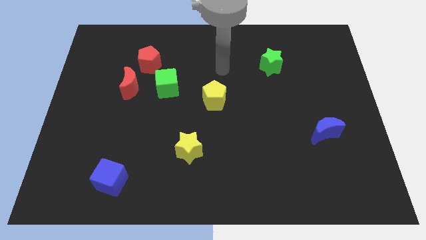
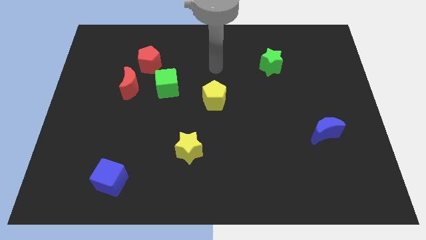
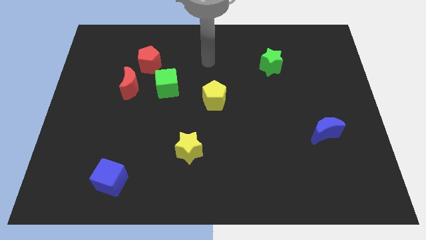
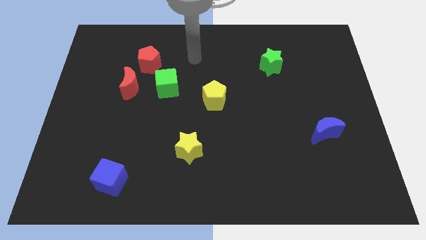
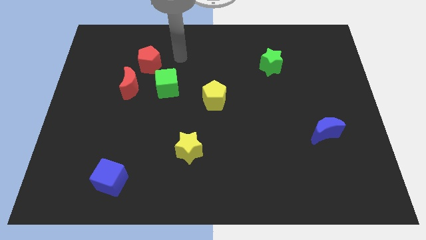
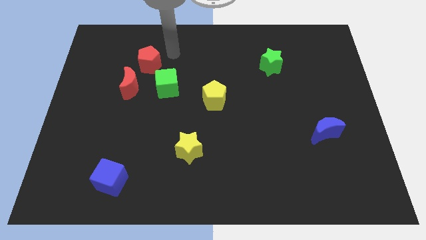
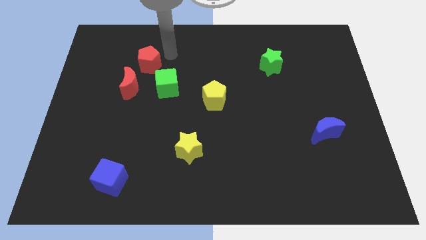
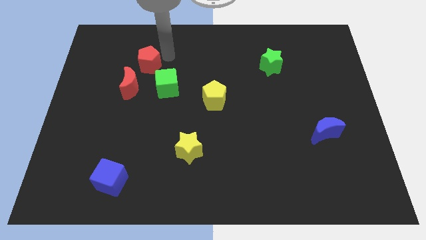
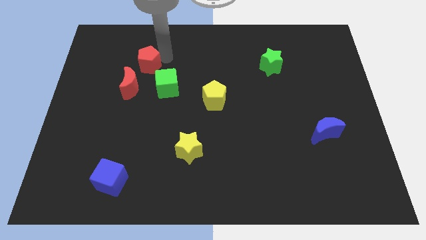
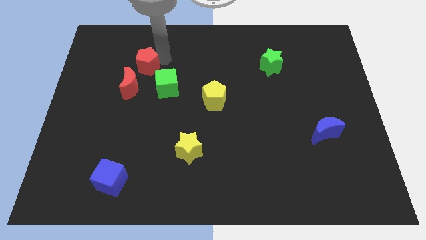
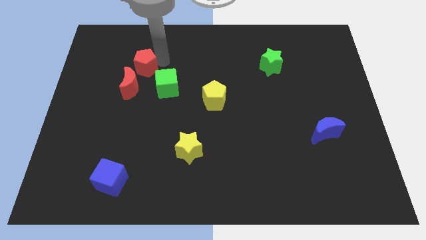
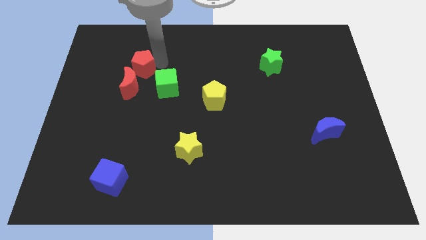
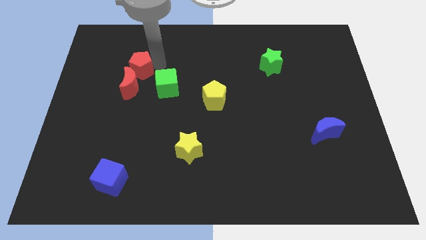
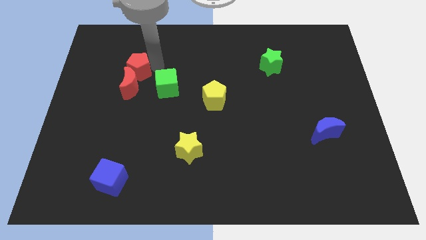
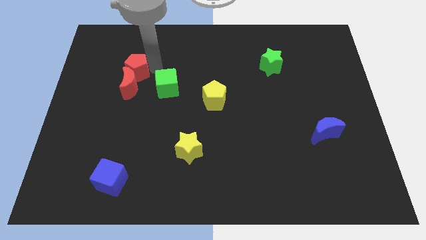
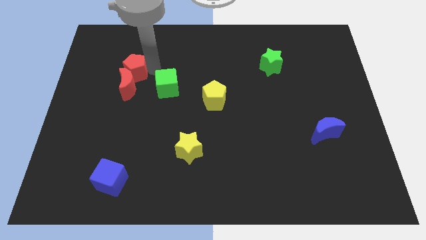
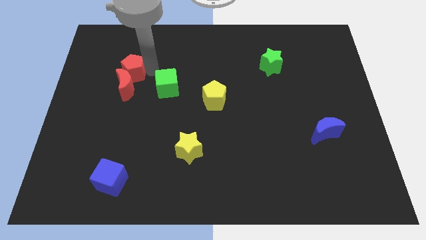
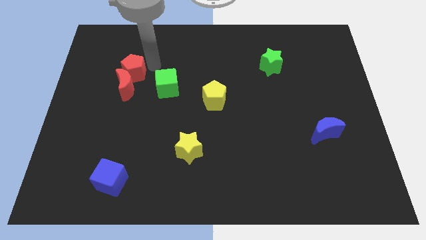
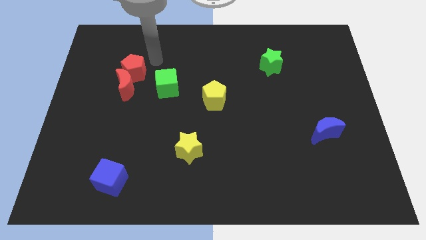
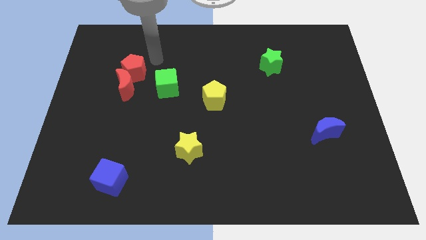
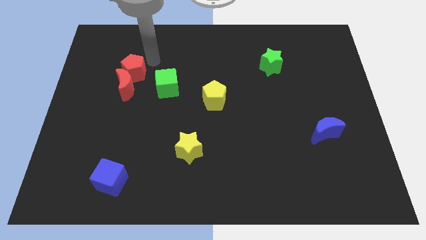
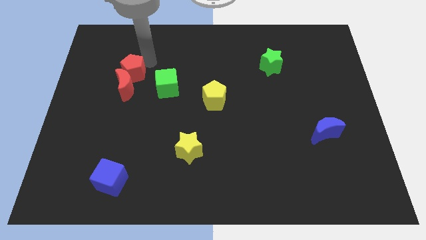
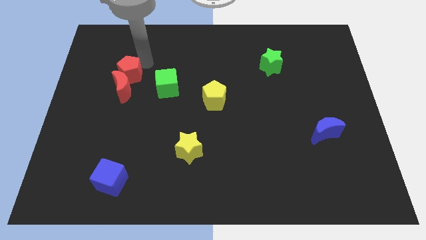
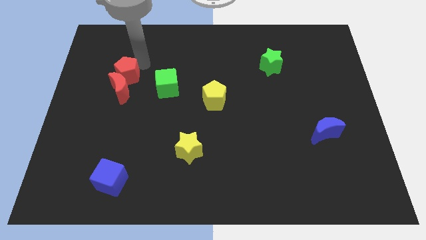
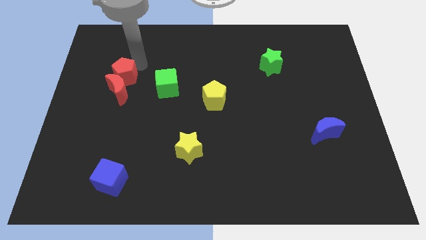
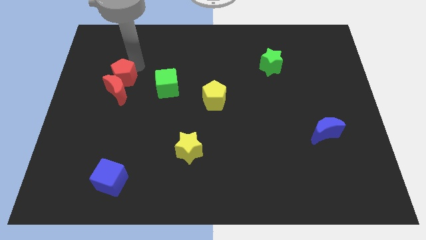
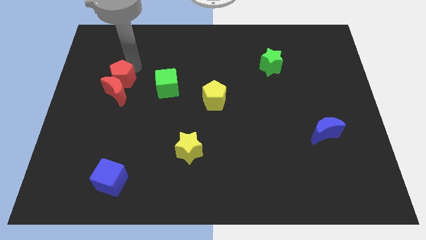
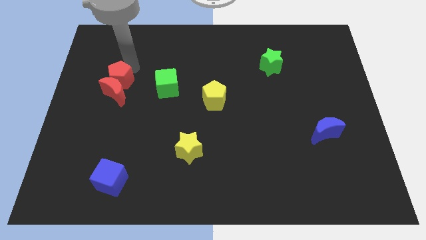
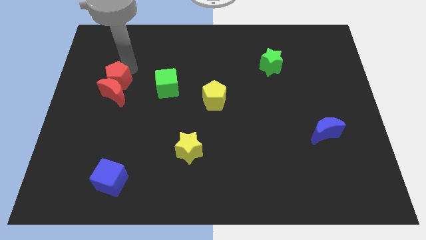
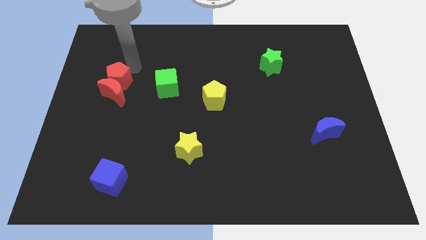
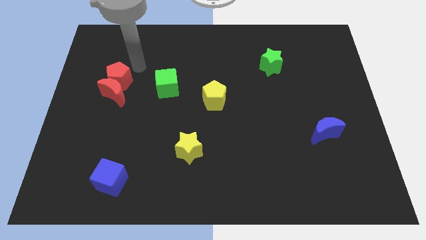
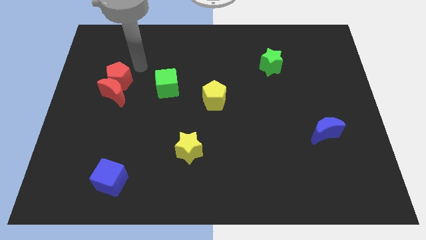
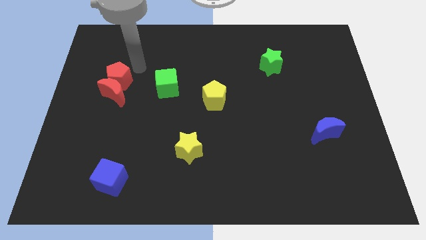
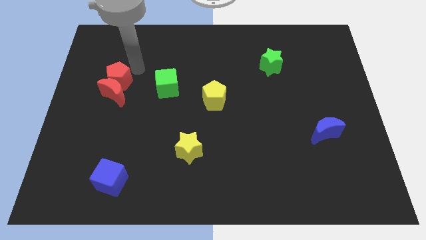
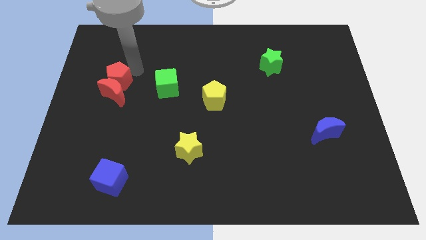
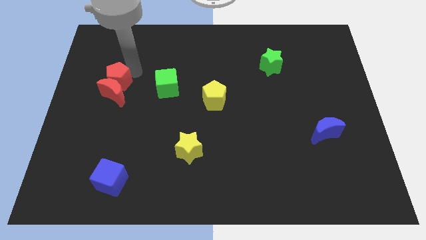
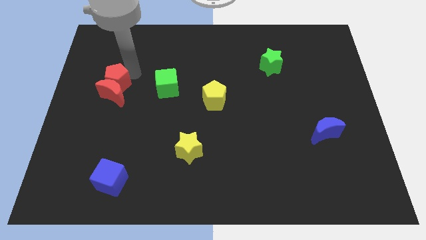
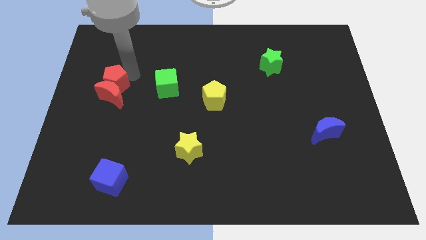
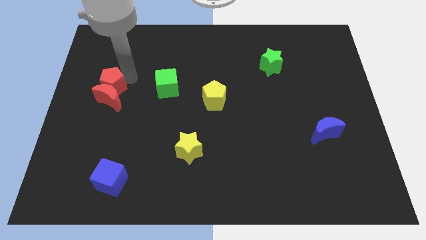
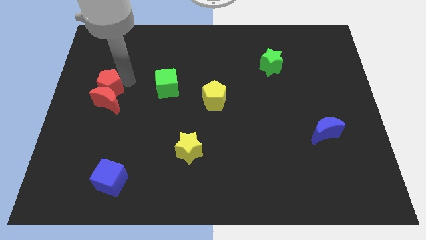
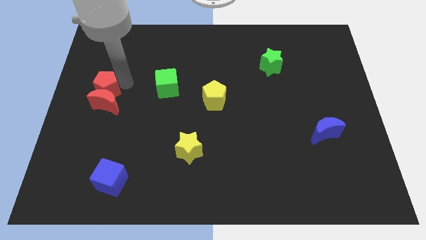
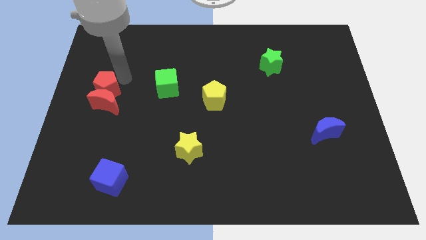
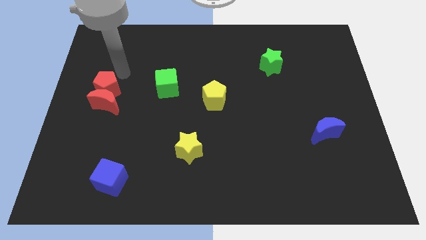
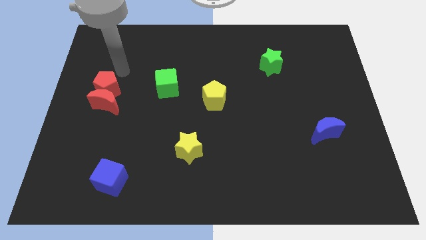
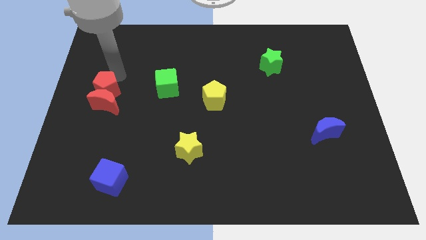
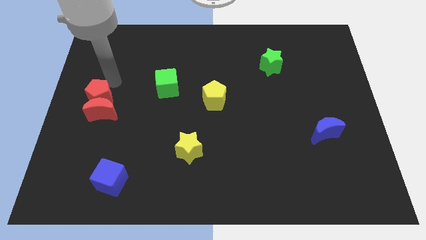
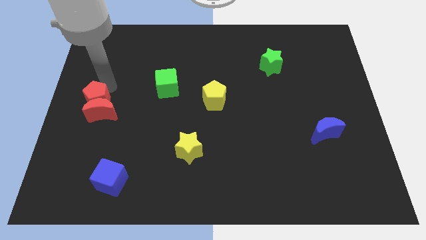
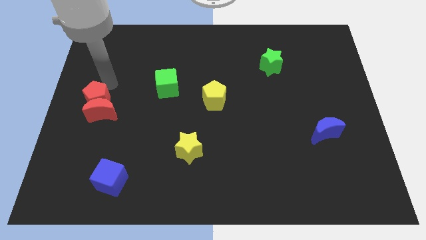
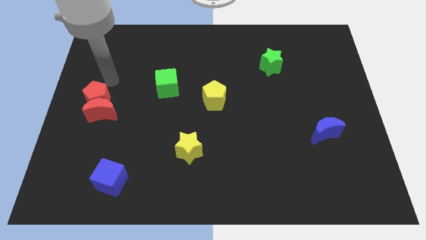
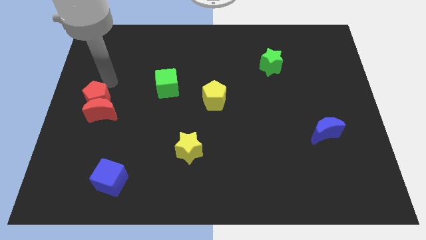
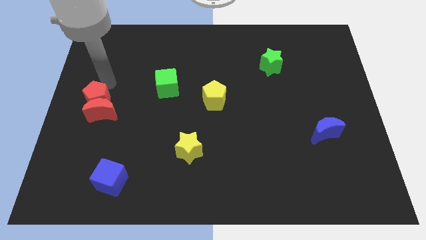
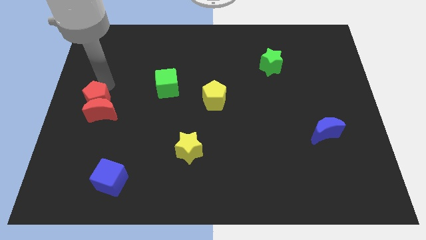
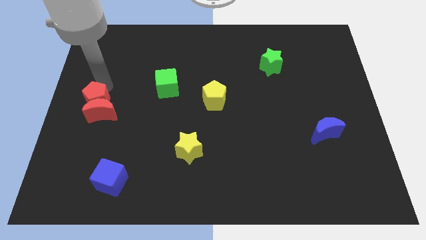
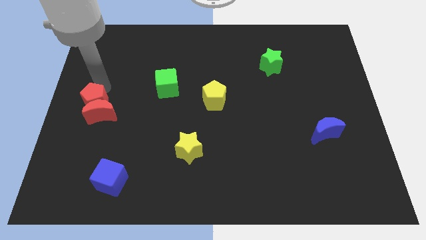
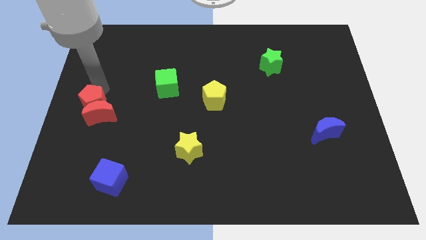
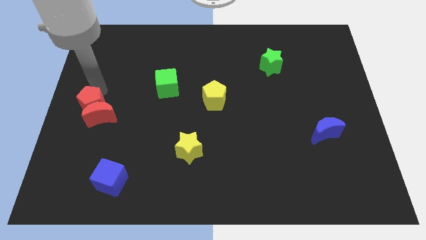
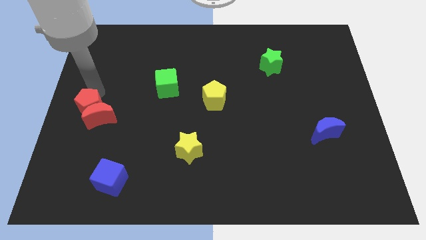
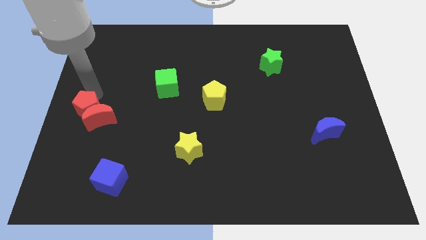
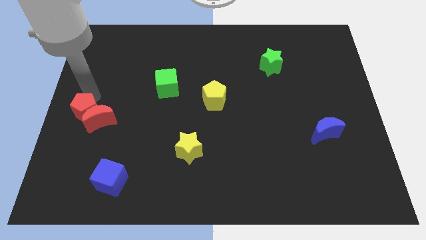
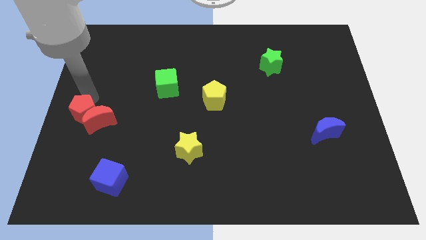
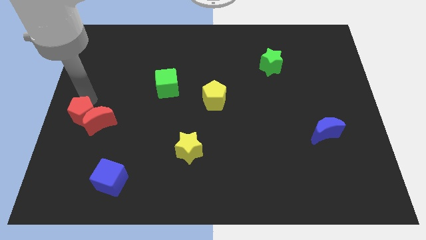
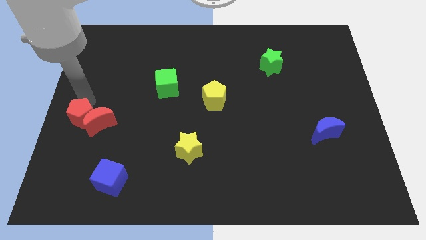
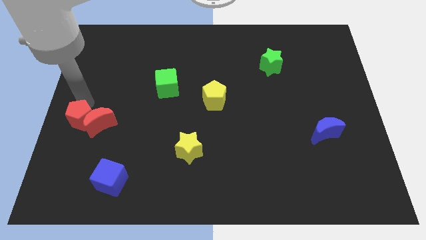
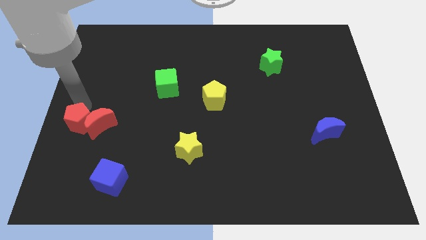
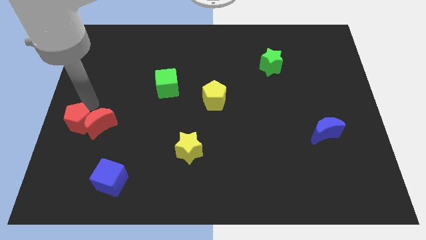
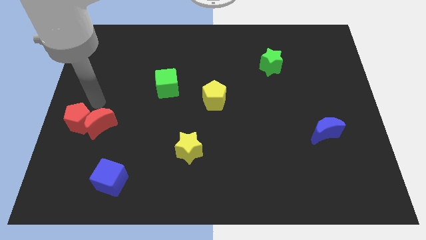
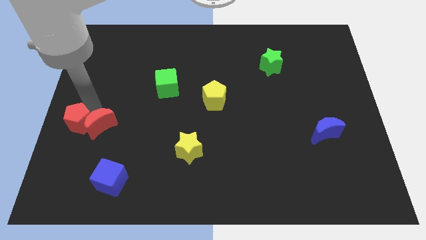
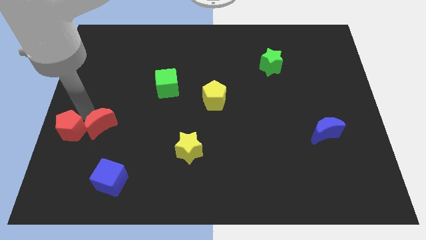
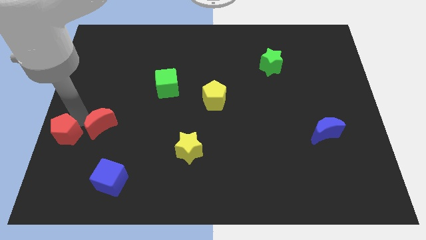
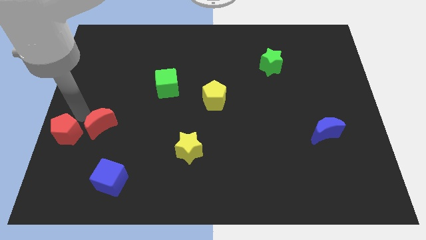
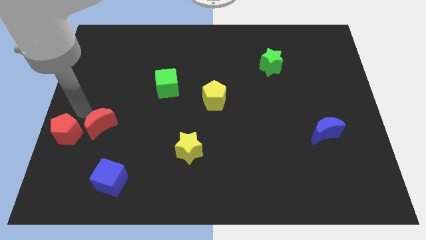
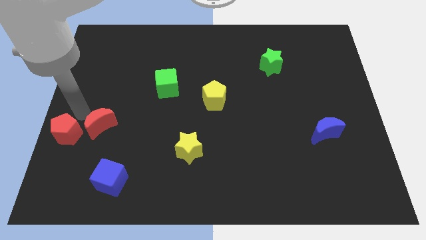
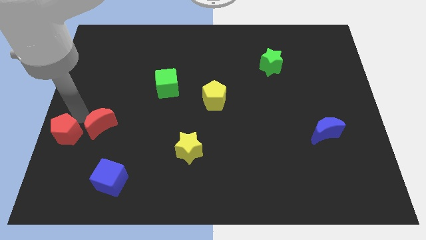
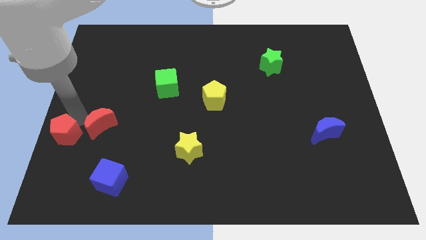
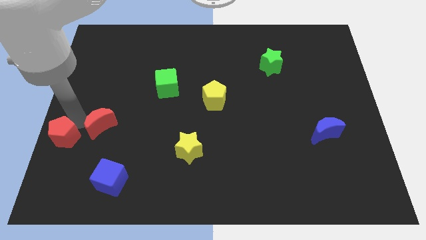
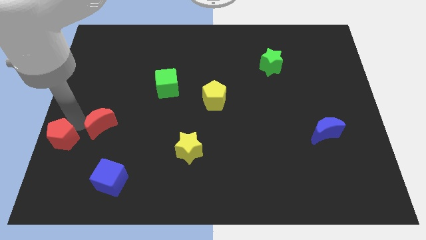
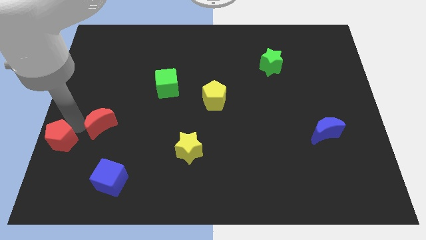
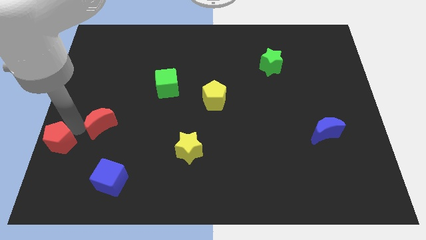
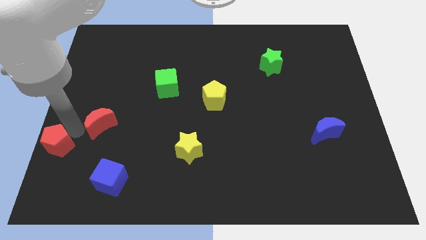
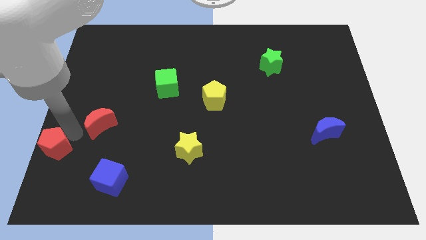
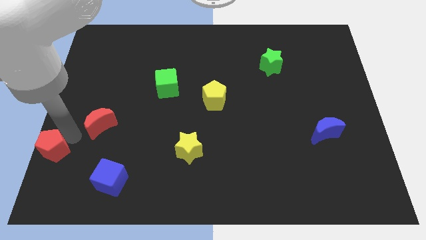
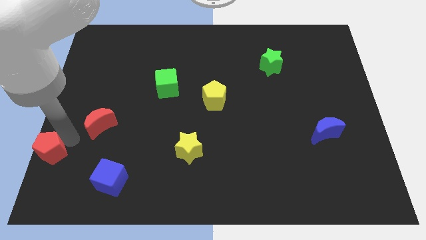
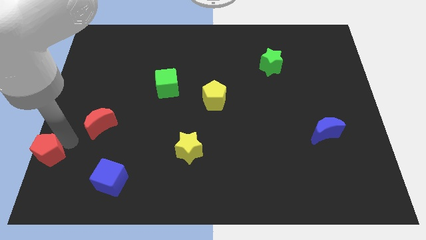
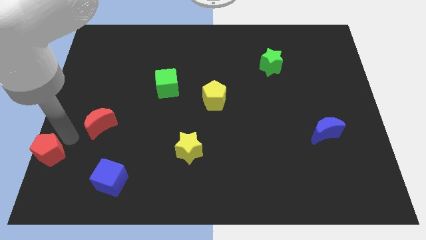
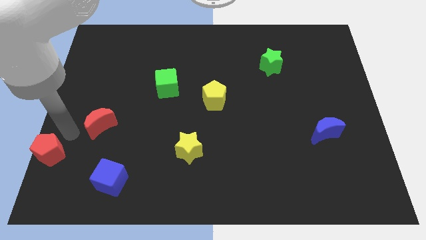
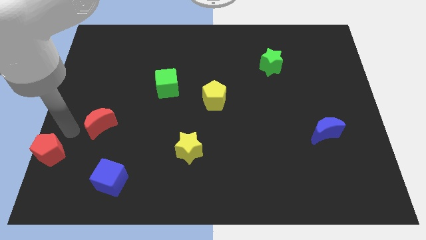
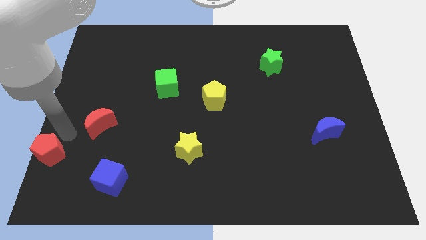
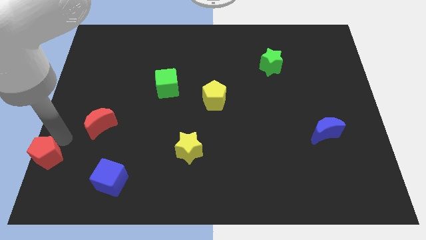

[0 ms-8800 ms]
put the red pentagon to the bottom left corner
